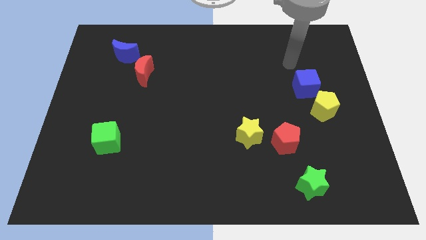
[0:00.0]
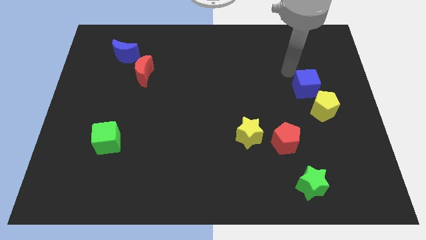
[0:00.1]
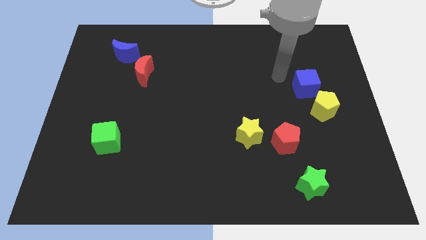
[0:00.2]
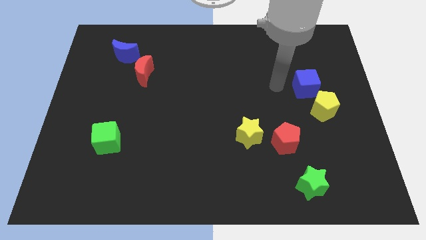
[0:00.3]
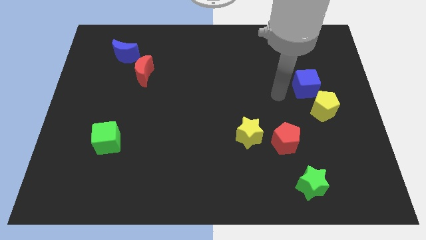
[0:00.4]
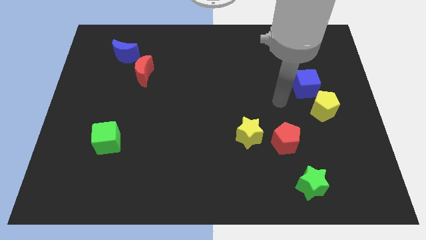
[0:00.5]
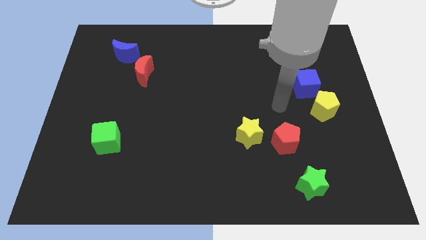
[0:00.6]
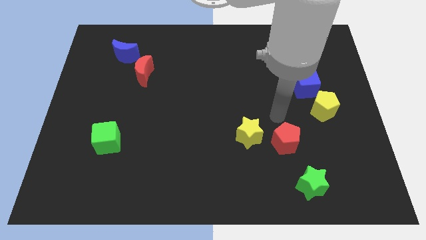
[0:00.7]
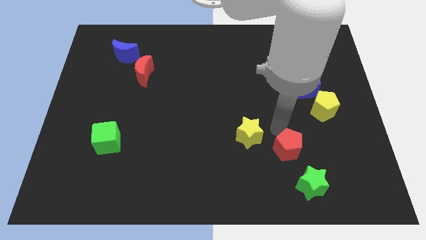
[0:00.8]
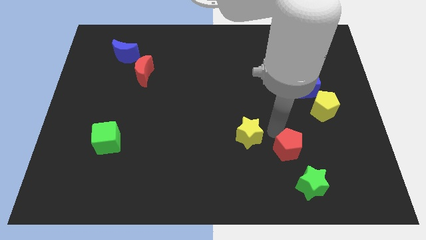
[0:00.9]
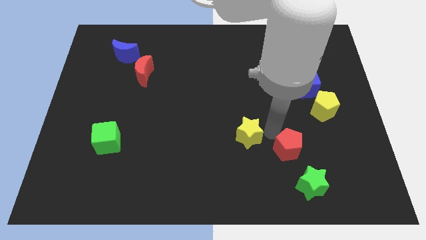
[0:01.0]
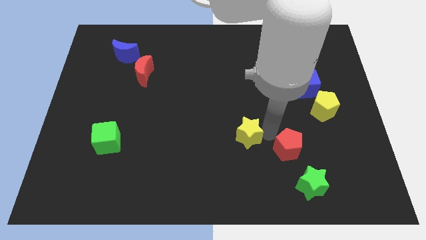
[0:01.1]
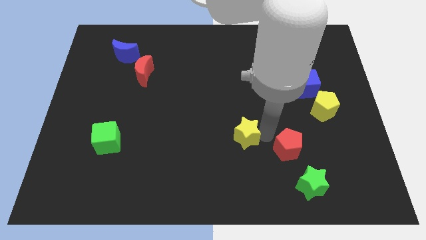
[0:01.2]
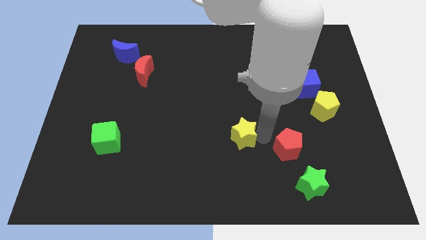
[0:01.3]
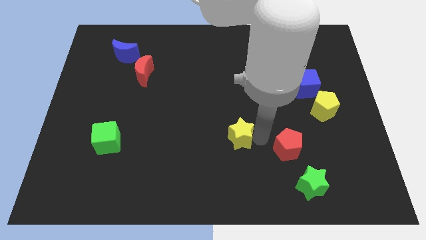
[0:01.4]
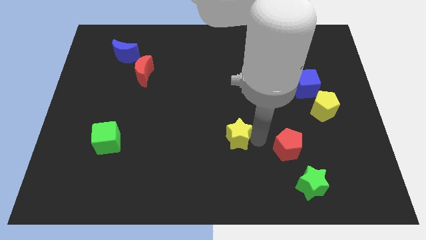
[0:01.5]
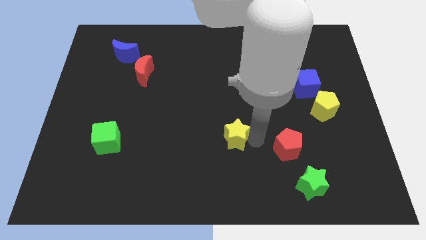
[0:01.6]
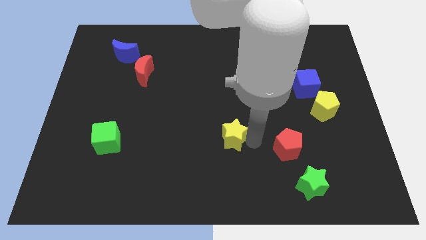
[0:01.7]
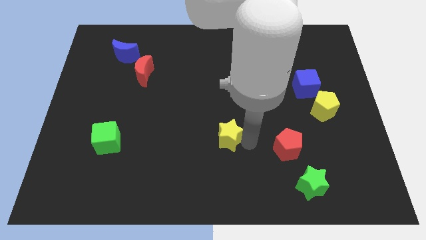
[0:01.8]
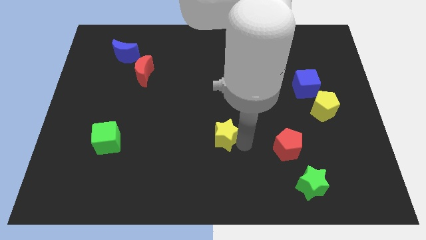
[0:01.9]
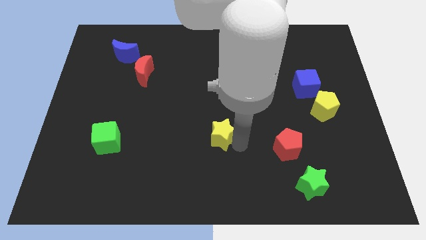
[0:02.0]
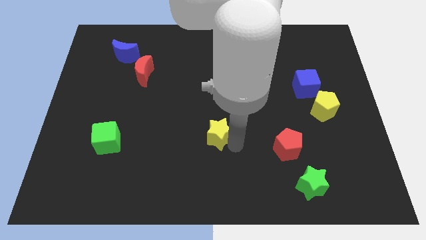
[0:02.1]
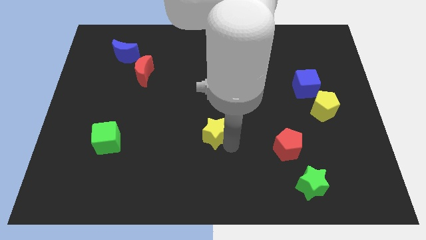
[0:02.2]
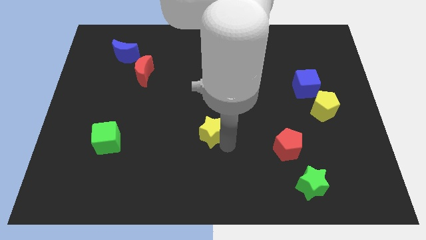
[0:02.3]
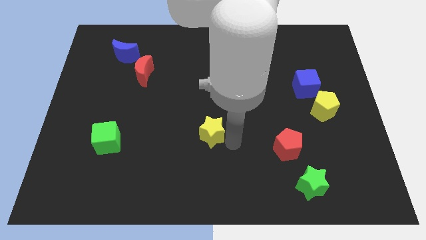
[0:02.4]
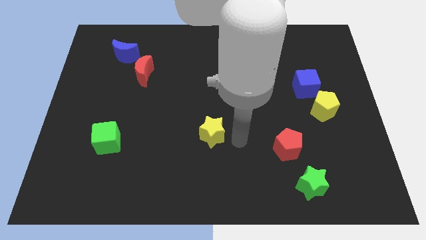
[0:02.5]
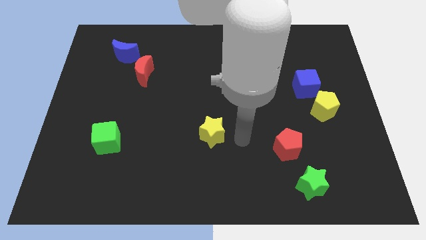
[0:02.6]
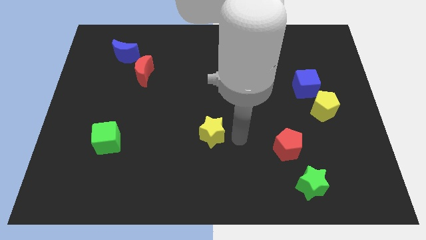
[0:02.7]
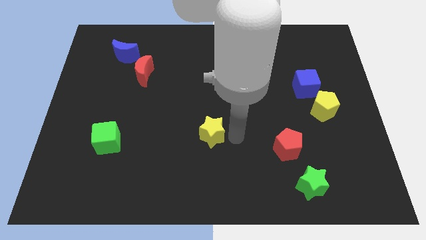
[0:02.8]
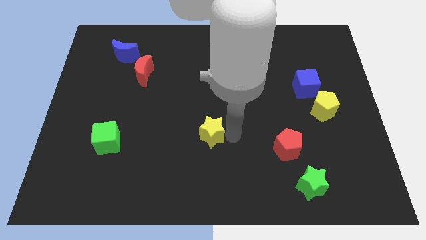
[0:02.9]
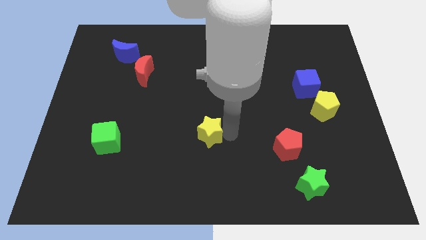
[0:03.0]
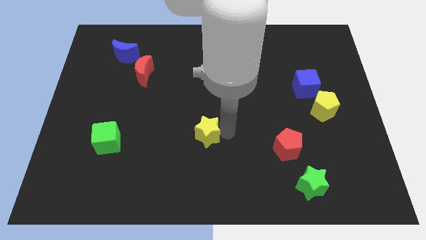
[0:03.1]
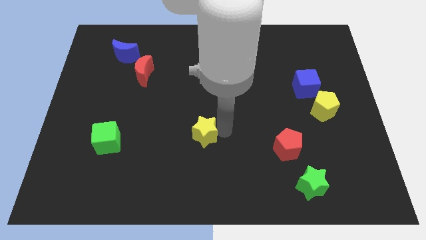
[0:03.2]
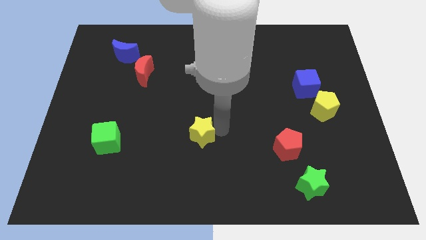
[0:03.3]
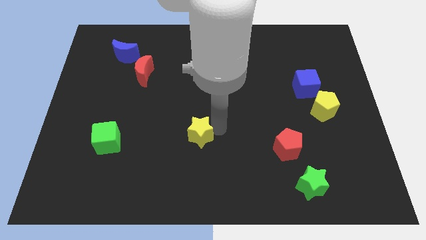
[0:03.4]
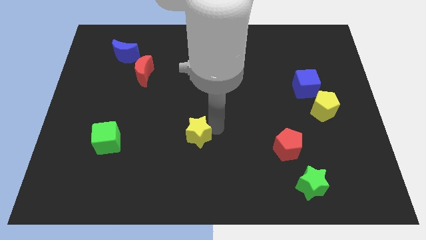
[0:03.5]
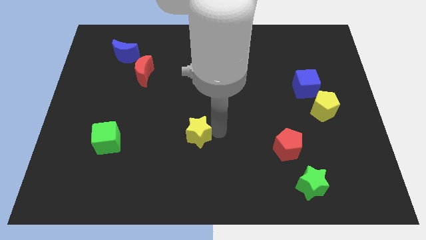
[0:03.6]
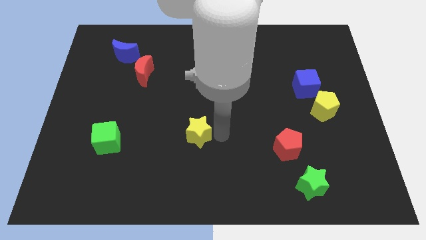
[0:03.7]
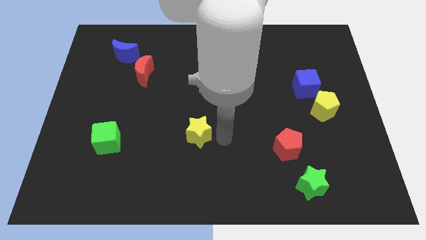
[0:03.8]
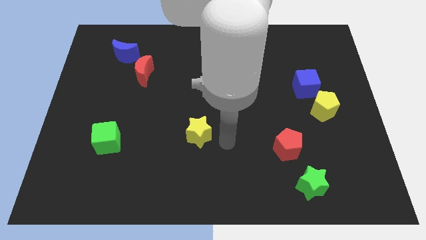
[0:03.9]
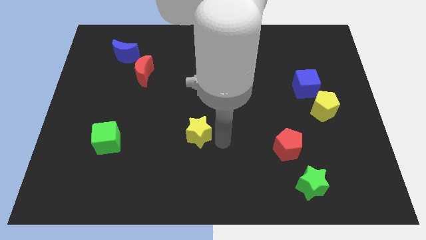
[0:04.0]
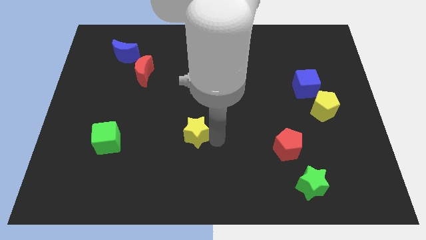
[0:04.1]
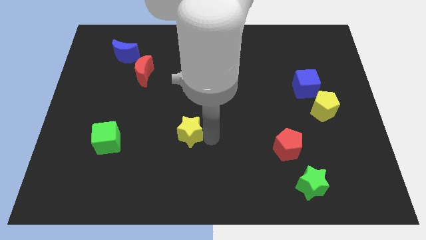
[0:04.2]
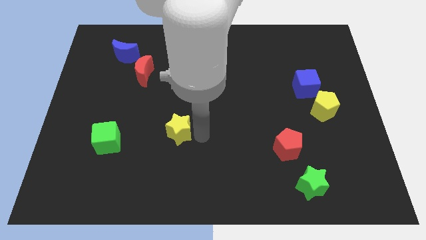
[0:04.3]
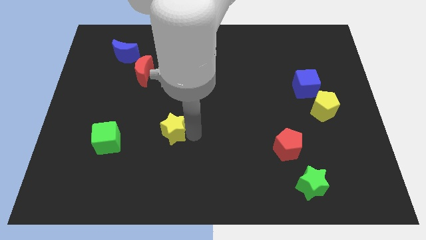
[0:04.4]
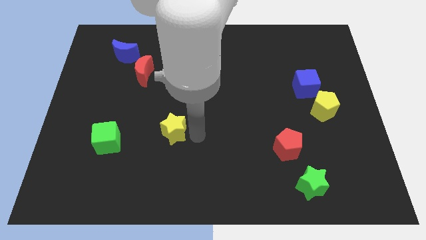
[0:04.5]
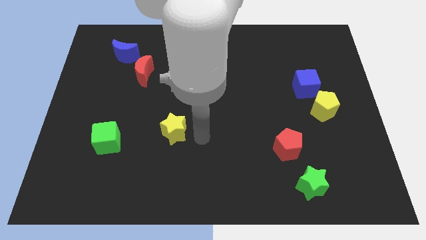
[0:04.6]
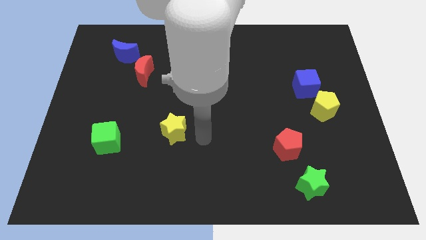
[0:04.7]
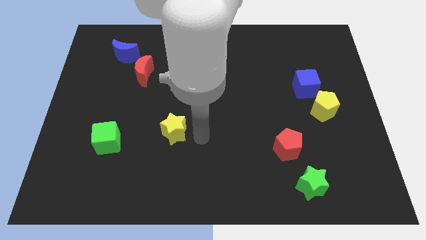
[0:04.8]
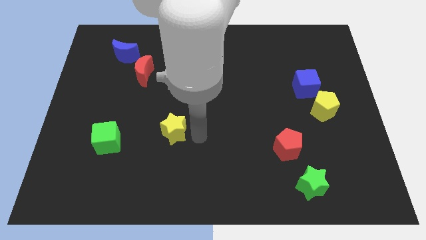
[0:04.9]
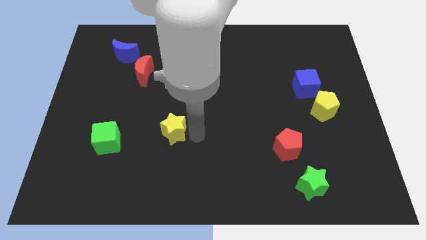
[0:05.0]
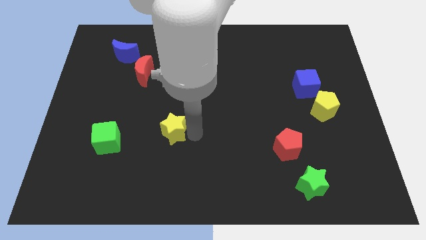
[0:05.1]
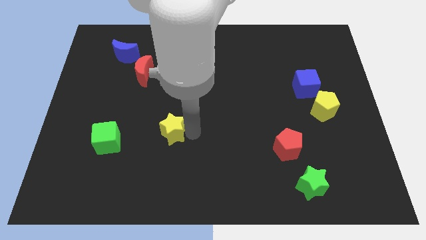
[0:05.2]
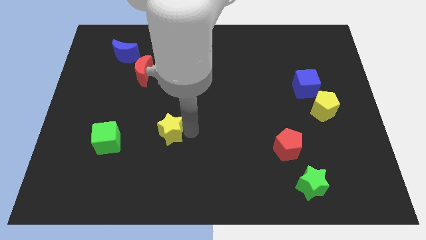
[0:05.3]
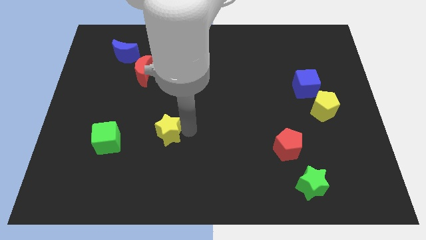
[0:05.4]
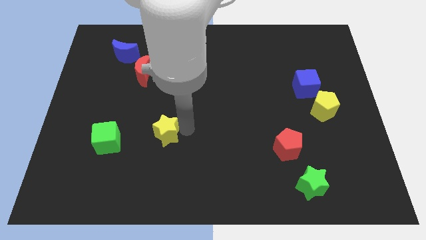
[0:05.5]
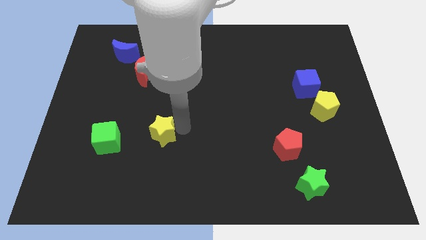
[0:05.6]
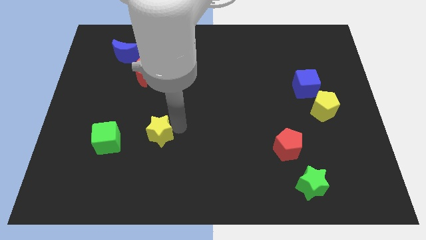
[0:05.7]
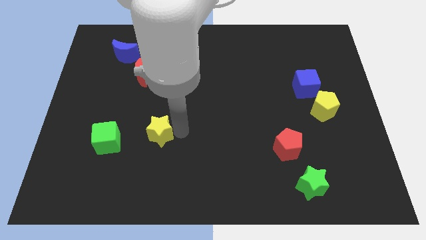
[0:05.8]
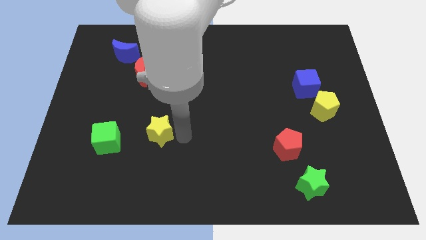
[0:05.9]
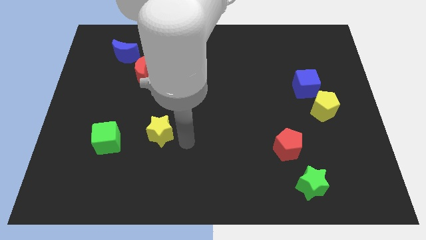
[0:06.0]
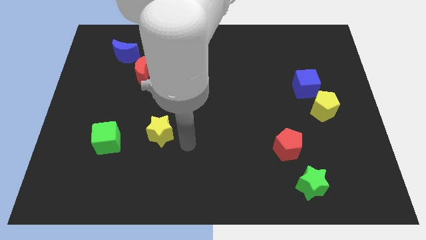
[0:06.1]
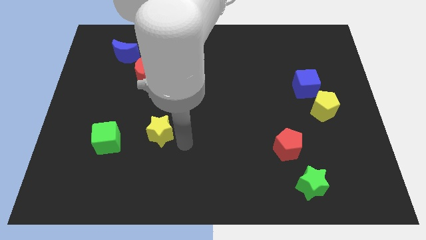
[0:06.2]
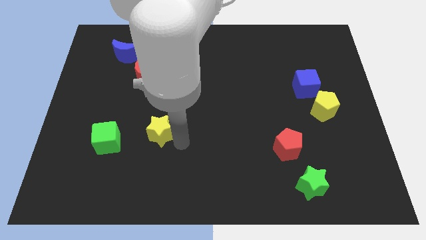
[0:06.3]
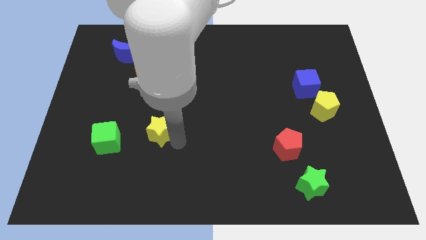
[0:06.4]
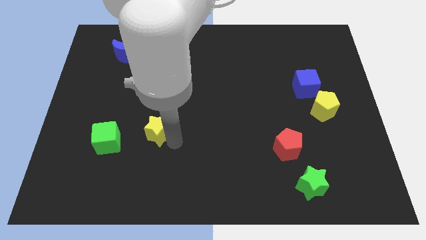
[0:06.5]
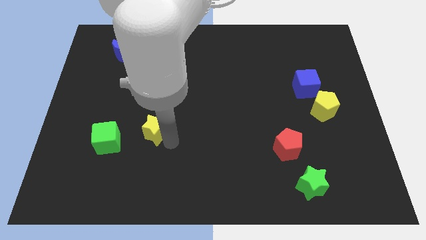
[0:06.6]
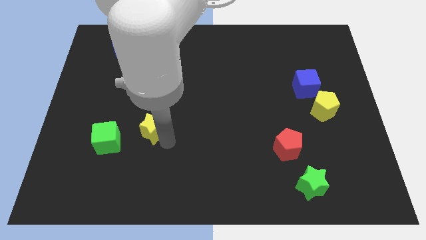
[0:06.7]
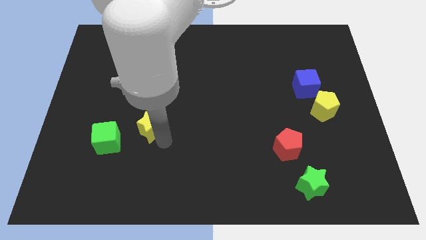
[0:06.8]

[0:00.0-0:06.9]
push the yellow star diagonally up and to the right of the green cube

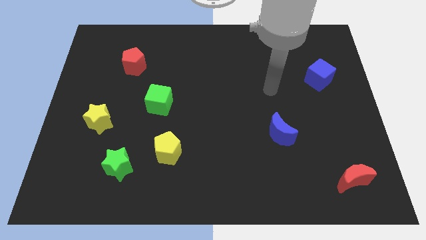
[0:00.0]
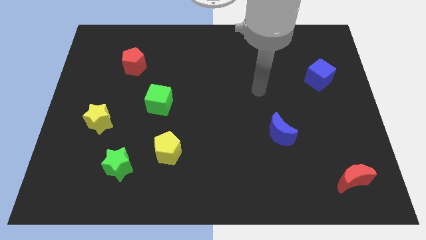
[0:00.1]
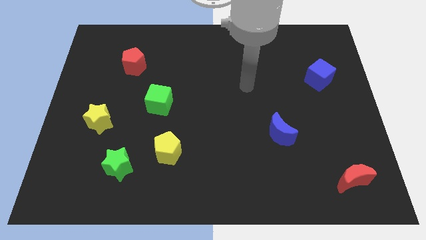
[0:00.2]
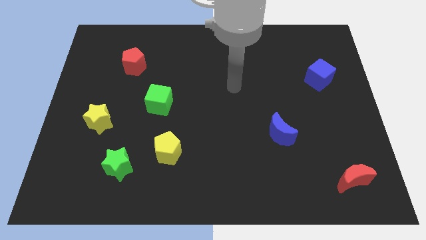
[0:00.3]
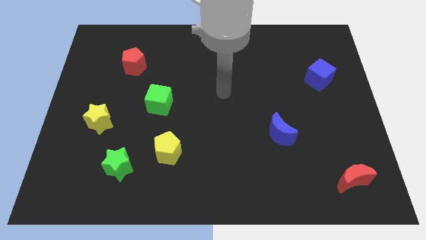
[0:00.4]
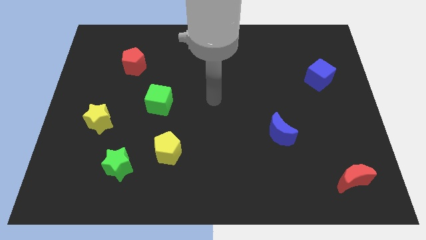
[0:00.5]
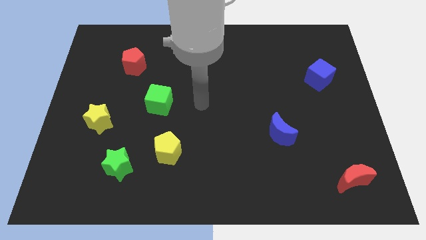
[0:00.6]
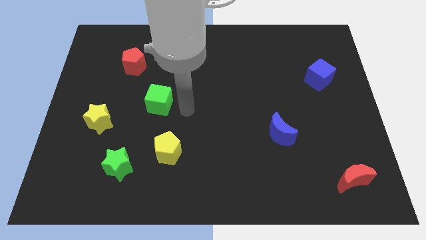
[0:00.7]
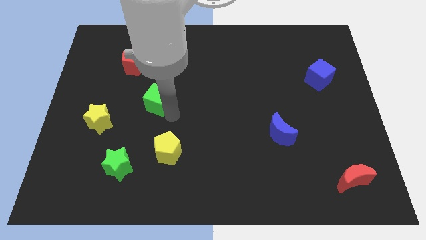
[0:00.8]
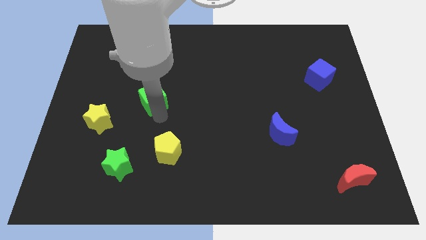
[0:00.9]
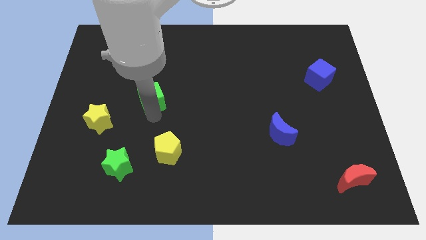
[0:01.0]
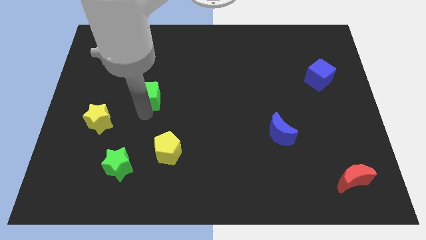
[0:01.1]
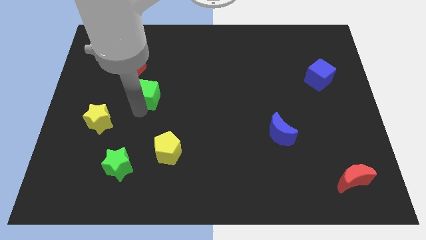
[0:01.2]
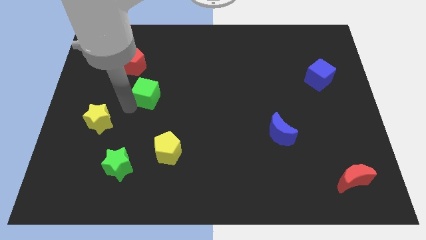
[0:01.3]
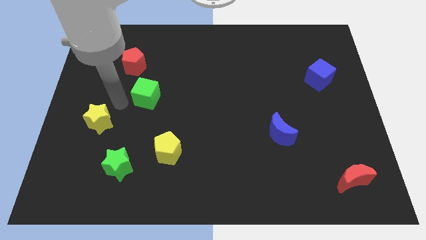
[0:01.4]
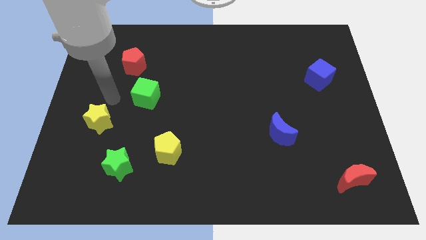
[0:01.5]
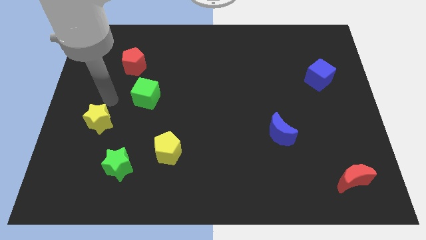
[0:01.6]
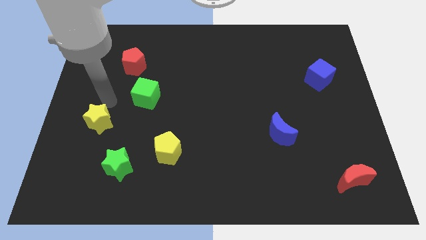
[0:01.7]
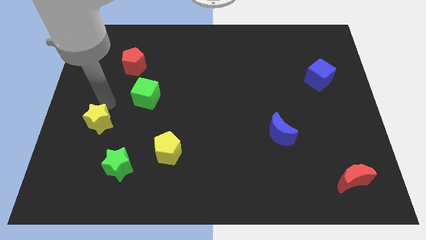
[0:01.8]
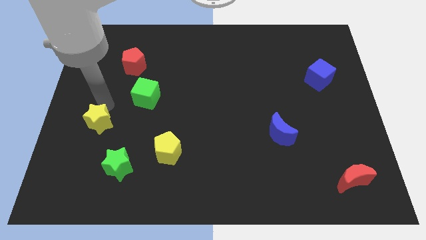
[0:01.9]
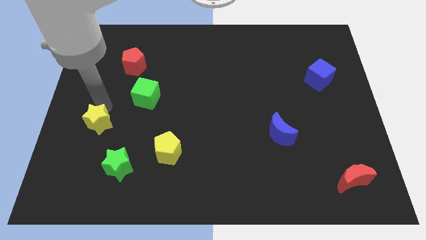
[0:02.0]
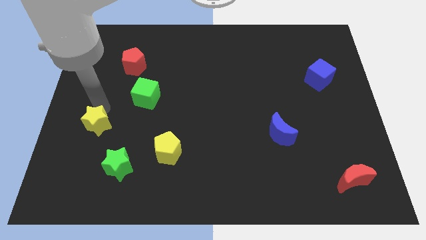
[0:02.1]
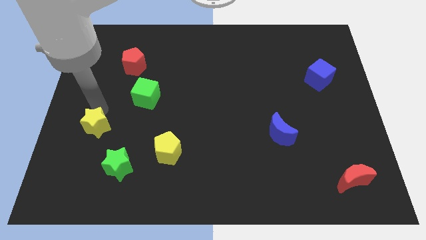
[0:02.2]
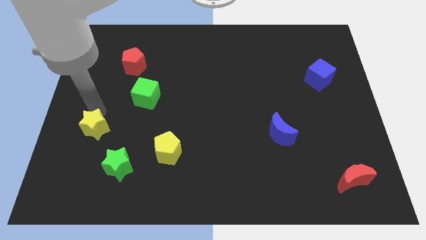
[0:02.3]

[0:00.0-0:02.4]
slide the yellow star to the top left of the green star
